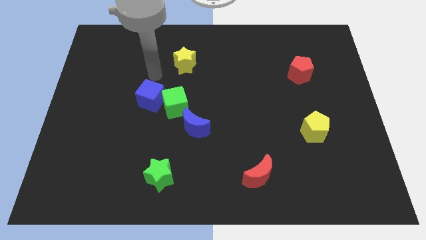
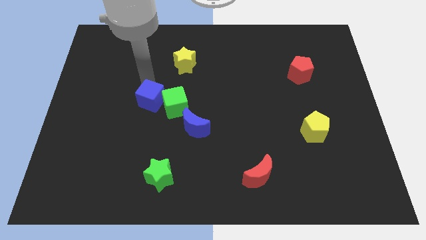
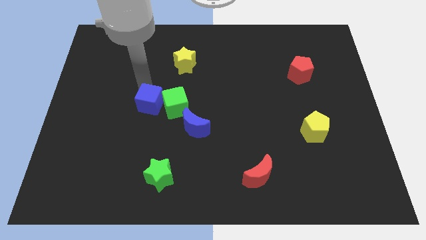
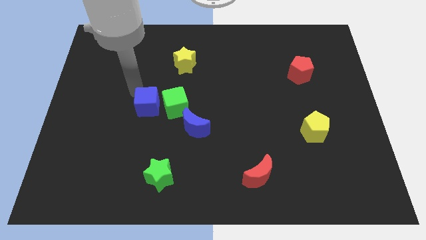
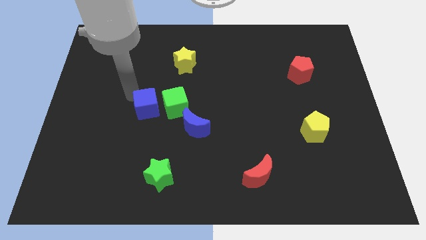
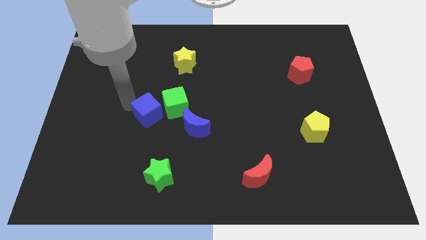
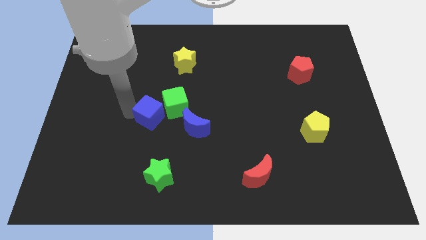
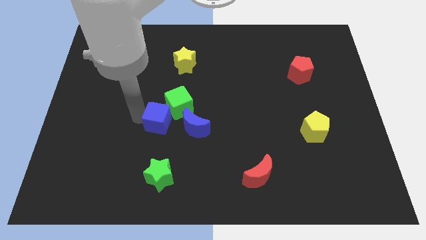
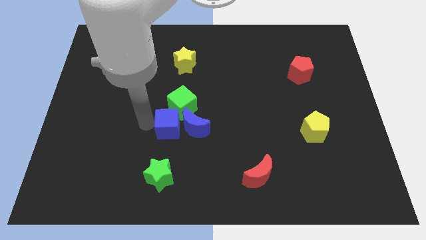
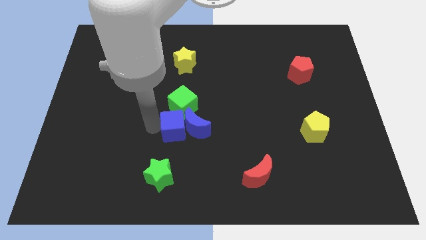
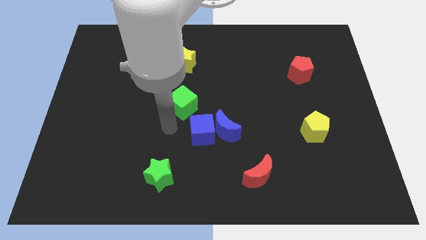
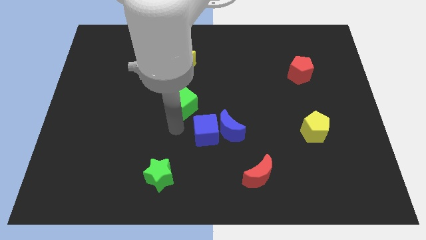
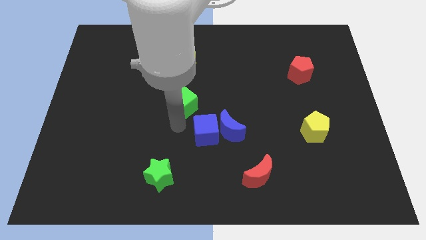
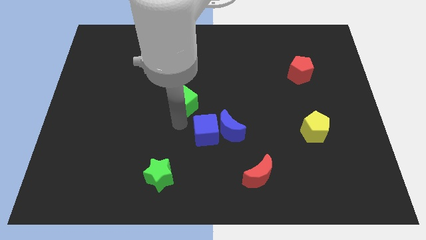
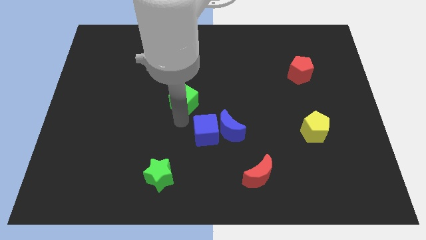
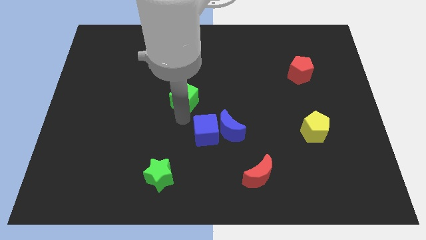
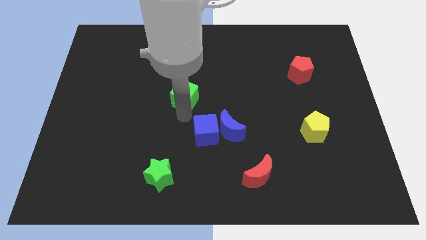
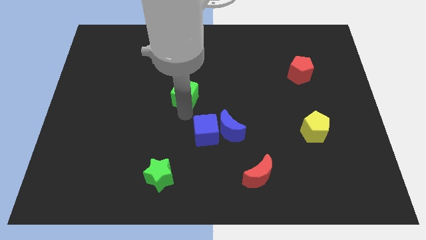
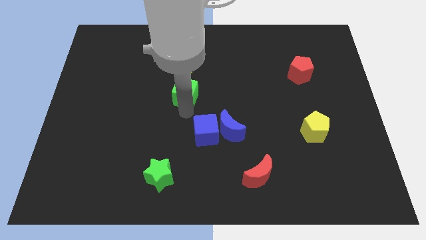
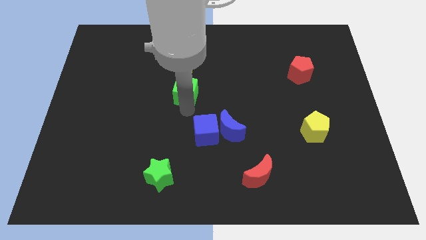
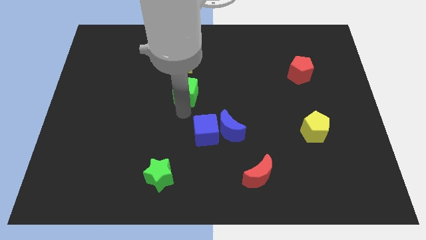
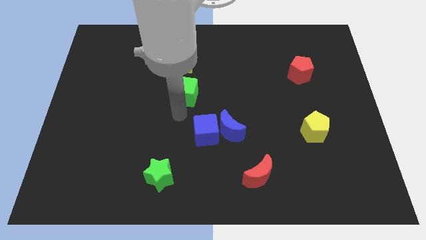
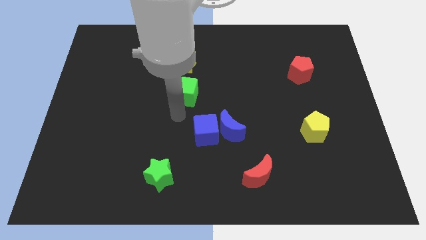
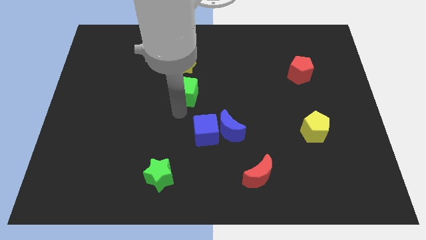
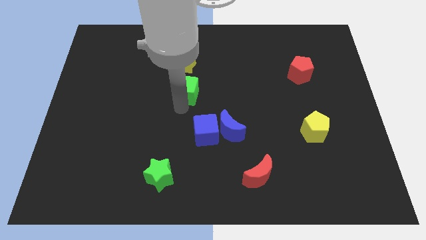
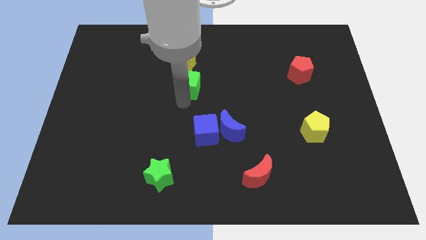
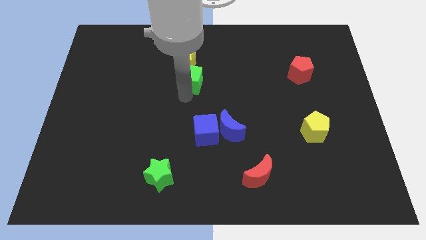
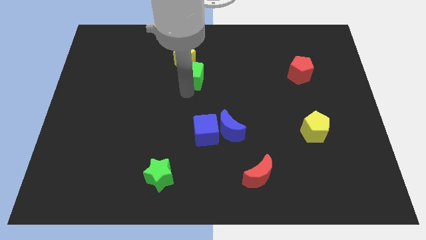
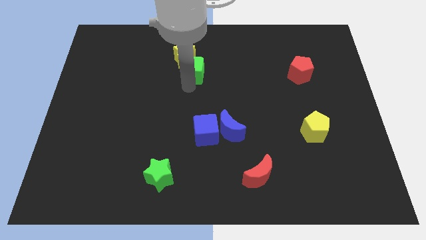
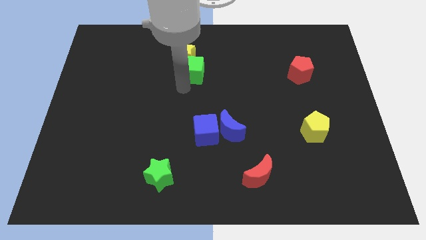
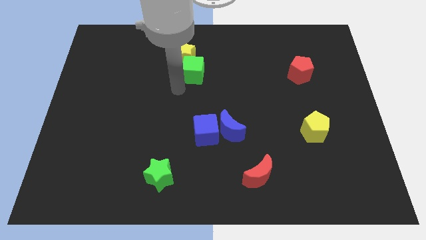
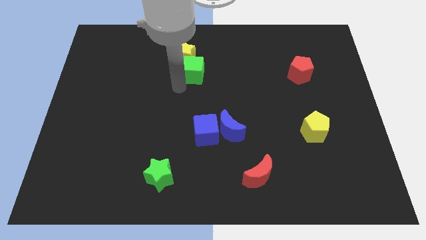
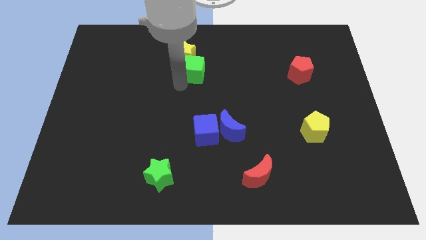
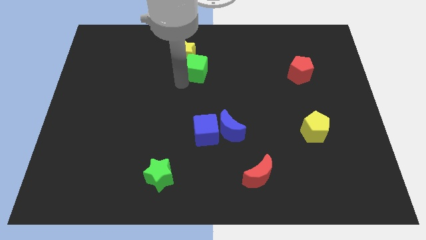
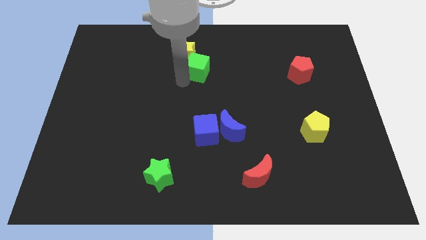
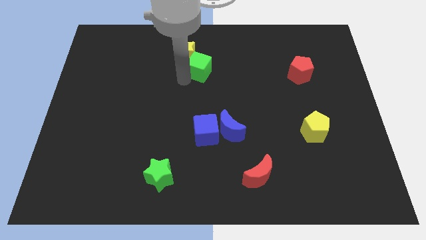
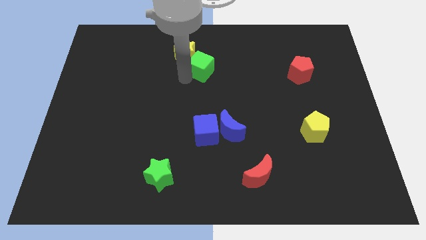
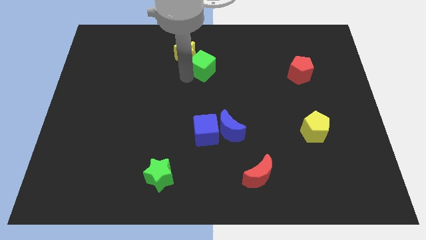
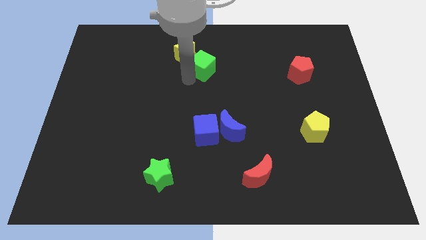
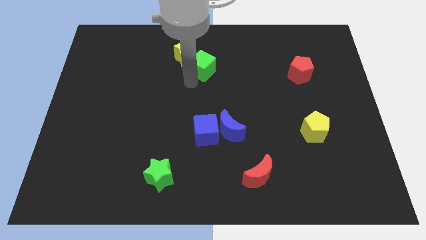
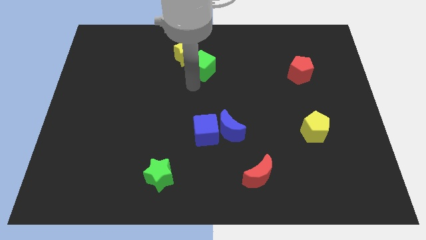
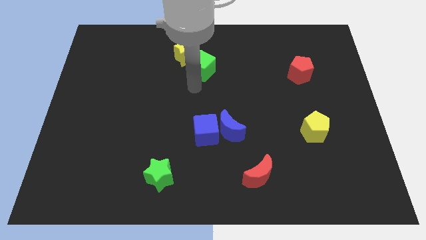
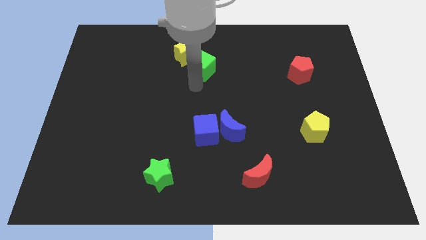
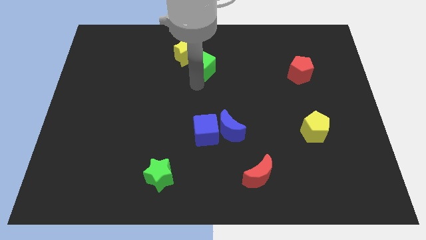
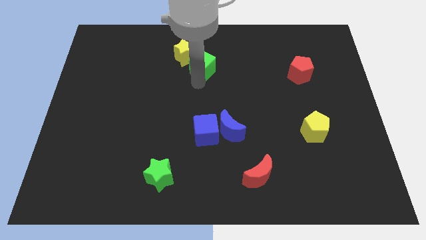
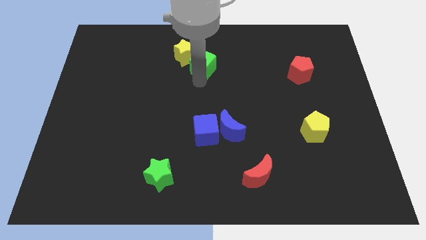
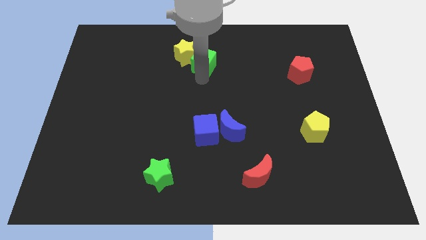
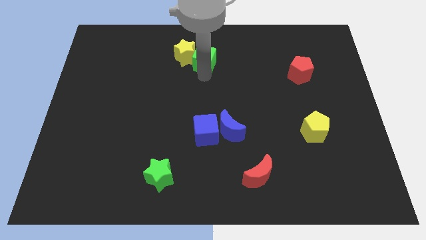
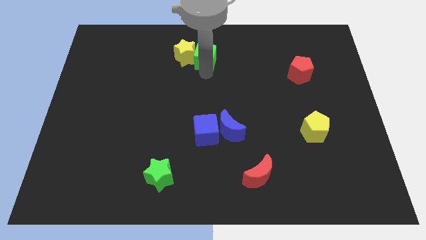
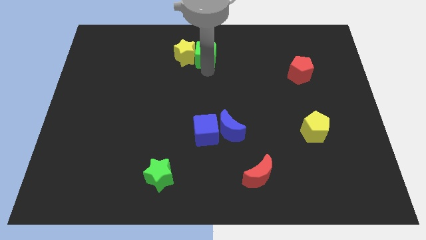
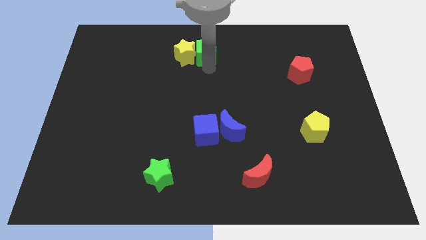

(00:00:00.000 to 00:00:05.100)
move the green cube to the top side
